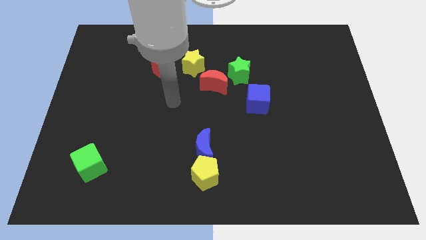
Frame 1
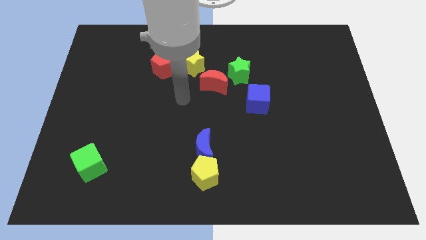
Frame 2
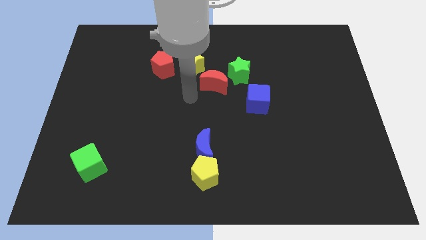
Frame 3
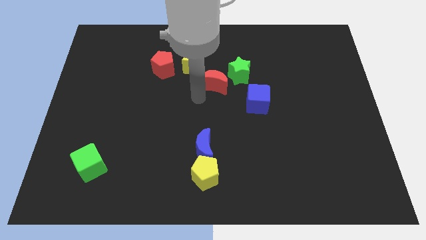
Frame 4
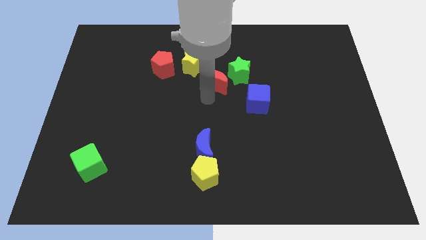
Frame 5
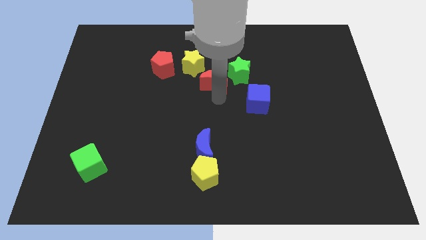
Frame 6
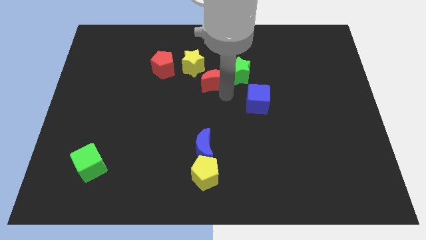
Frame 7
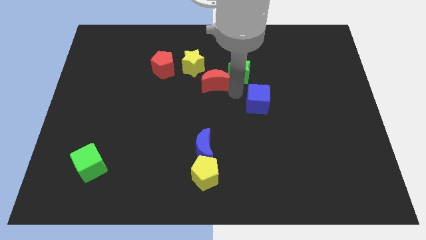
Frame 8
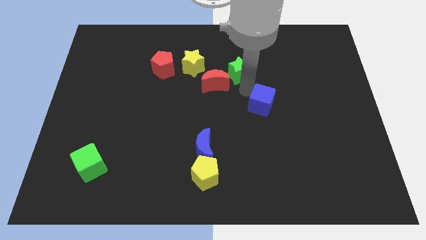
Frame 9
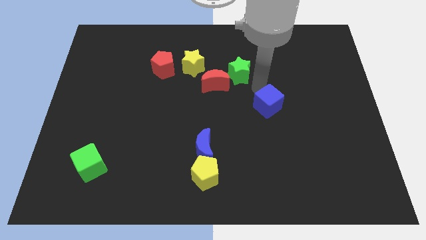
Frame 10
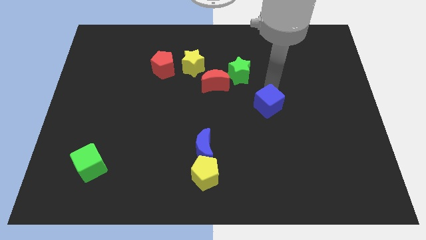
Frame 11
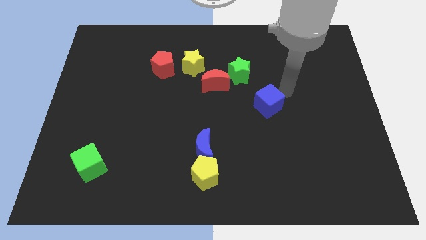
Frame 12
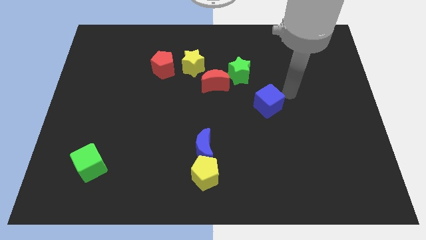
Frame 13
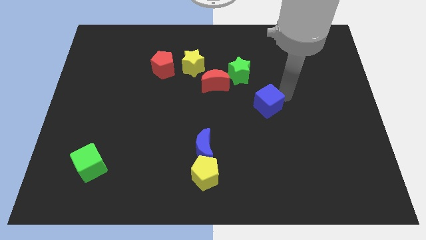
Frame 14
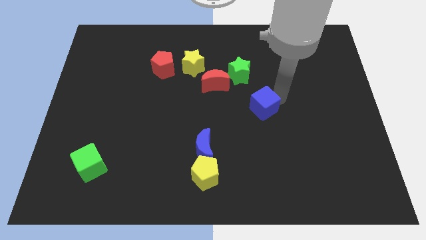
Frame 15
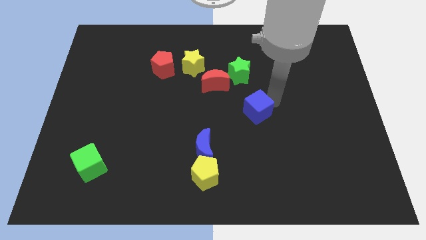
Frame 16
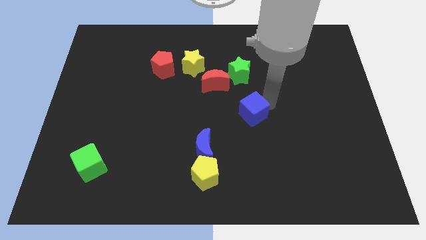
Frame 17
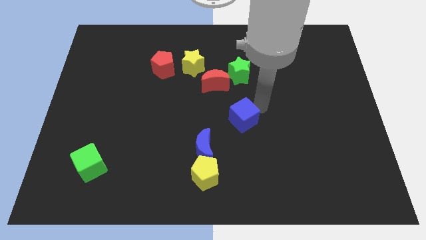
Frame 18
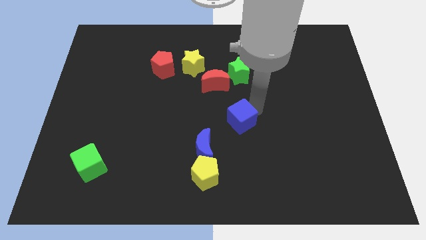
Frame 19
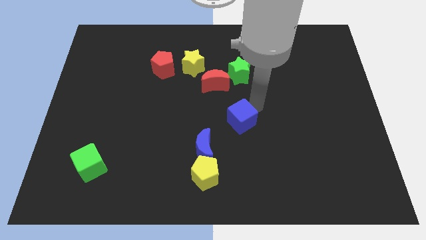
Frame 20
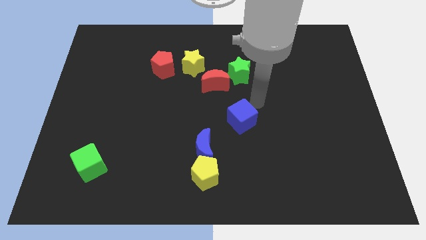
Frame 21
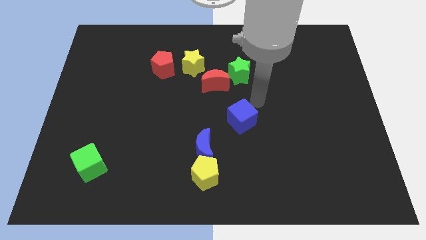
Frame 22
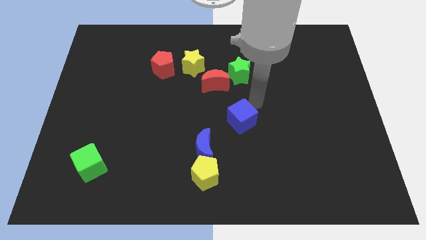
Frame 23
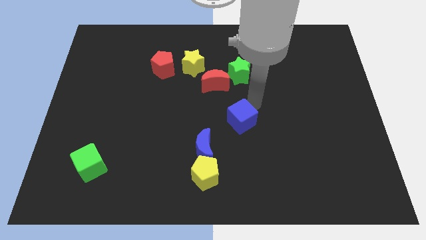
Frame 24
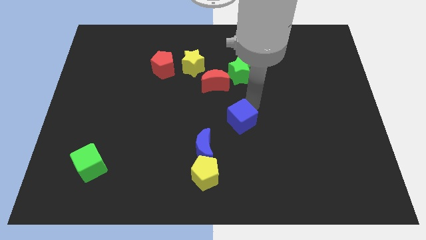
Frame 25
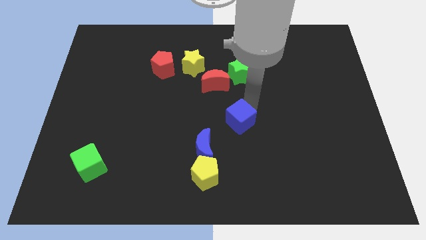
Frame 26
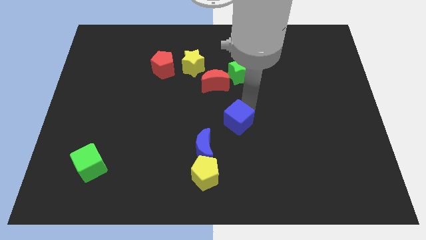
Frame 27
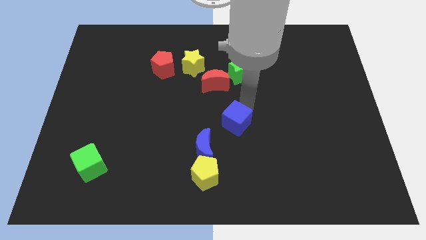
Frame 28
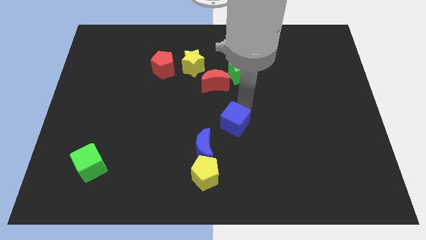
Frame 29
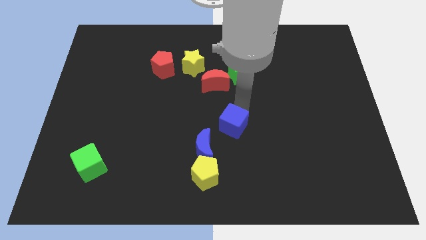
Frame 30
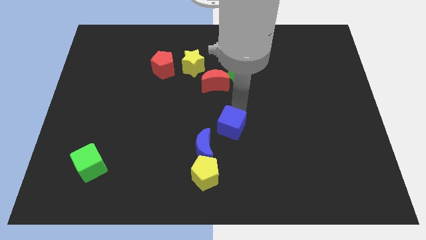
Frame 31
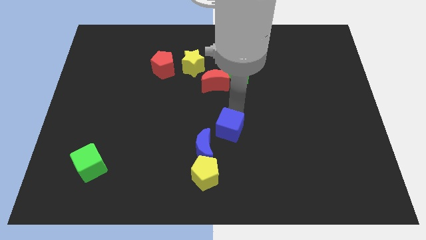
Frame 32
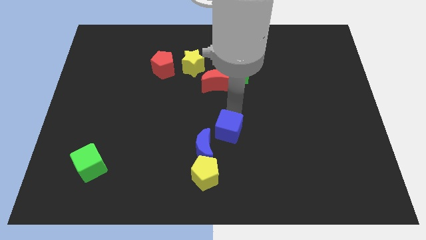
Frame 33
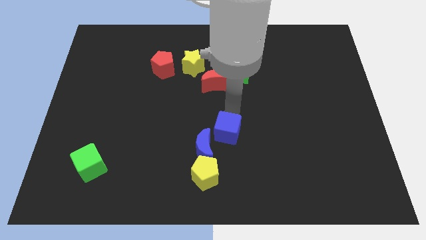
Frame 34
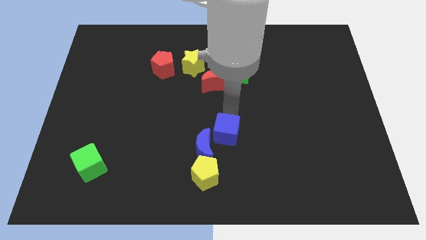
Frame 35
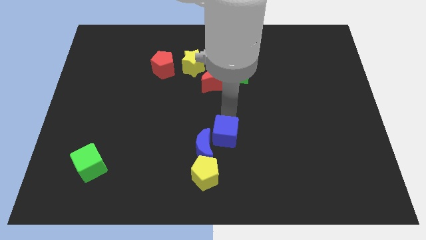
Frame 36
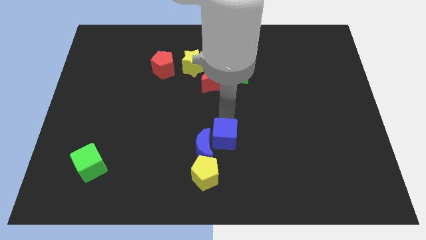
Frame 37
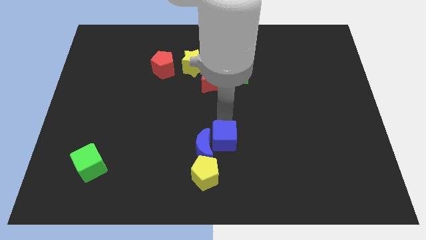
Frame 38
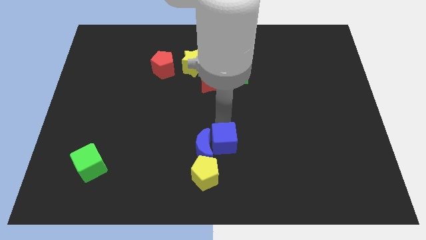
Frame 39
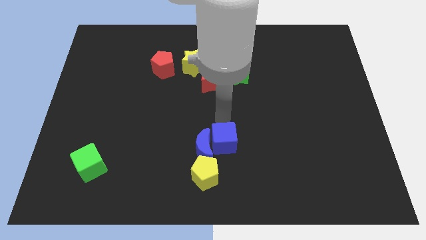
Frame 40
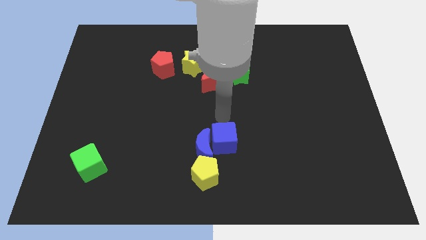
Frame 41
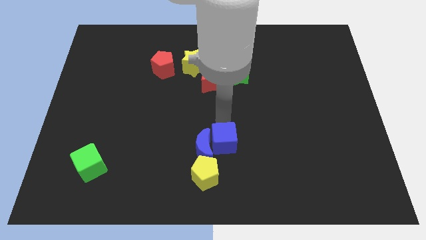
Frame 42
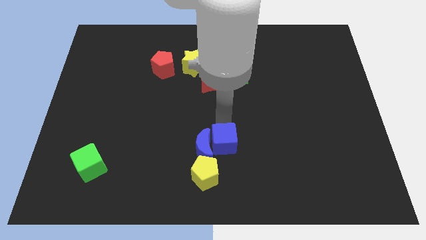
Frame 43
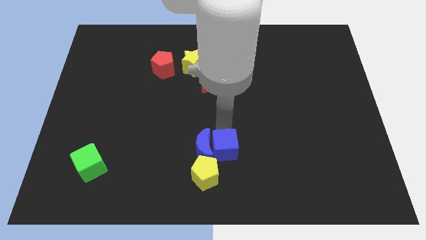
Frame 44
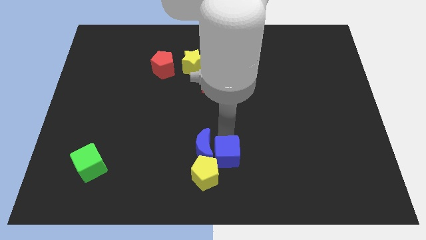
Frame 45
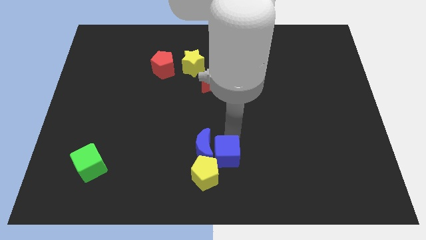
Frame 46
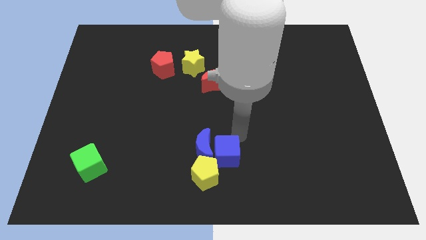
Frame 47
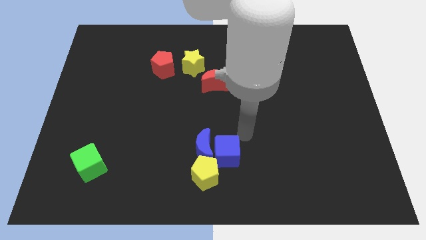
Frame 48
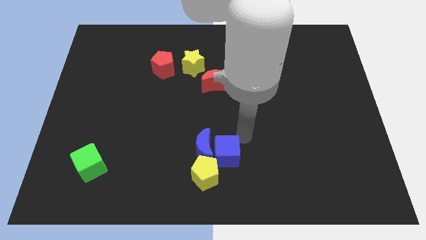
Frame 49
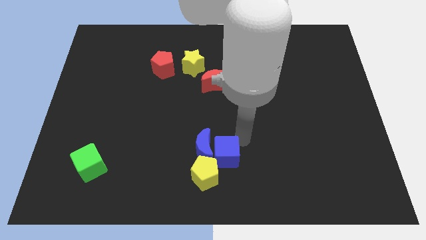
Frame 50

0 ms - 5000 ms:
put the blue cube close to the yellow pentagon

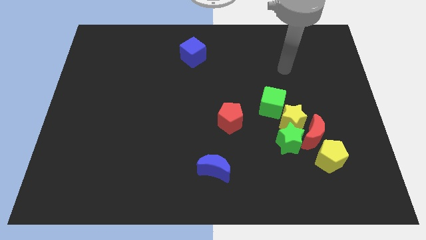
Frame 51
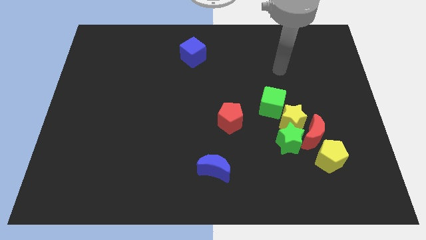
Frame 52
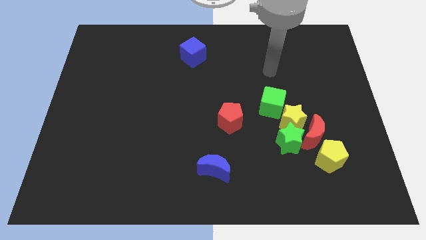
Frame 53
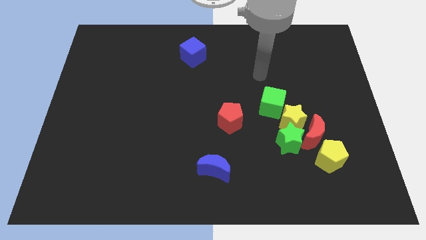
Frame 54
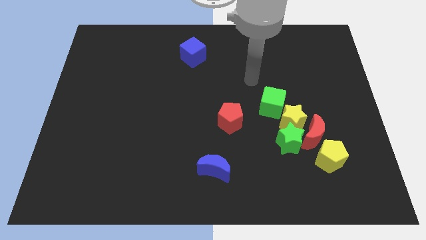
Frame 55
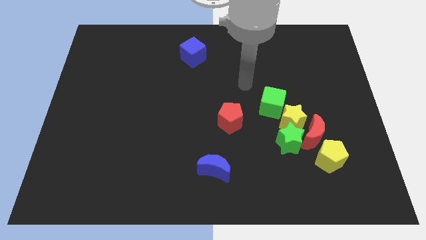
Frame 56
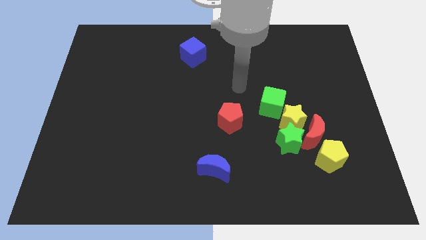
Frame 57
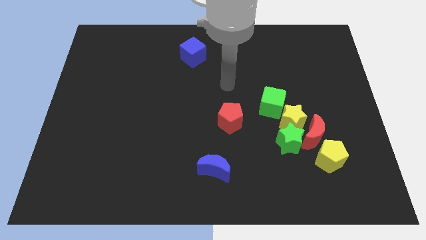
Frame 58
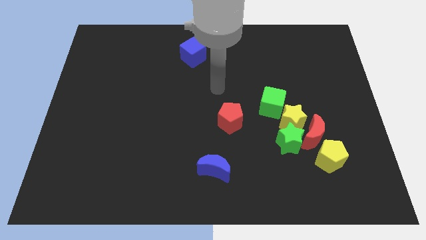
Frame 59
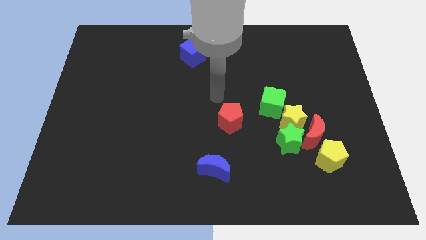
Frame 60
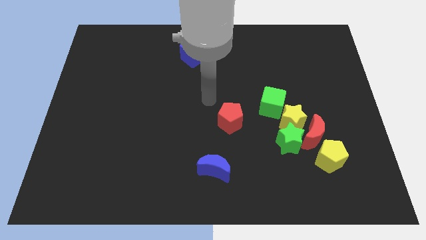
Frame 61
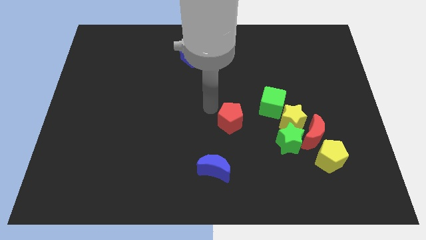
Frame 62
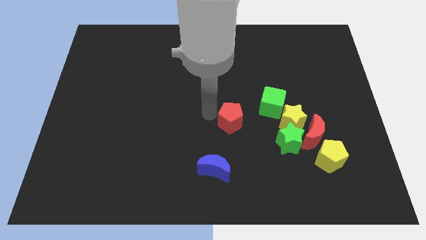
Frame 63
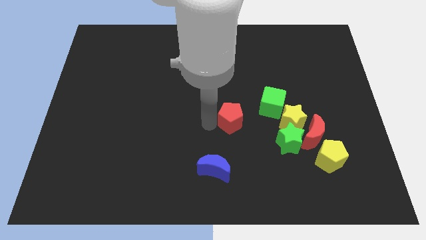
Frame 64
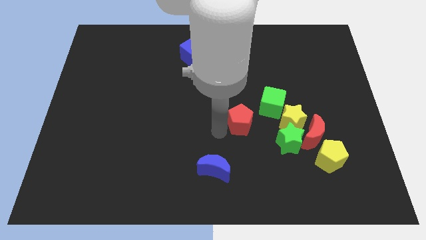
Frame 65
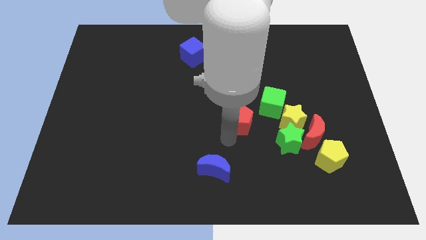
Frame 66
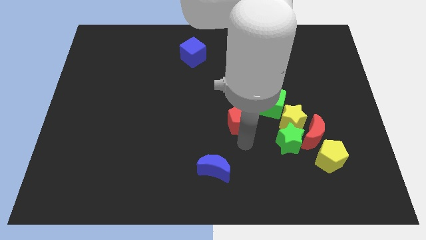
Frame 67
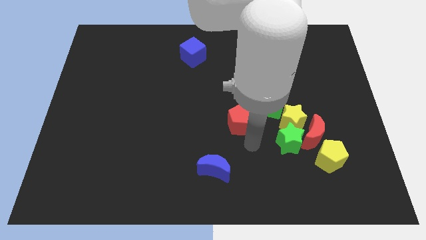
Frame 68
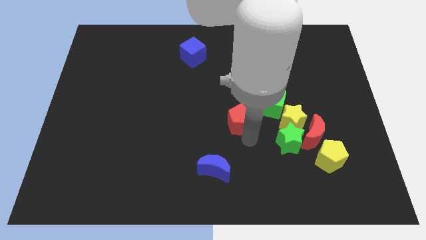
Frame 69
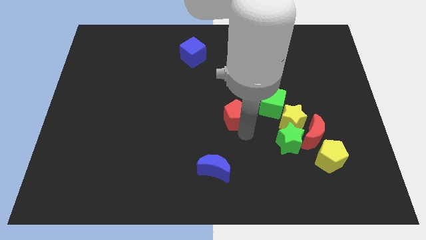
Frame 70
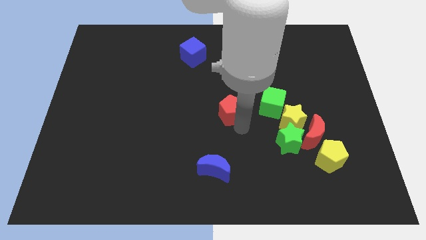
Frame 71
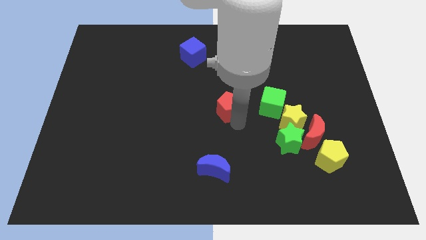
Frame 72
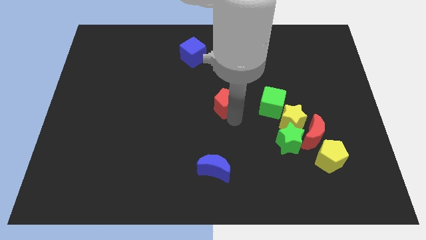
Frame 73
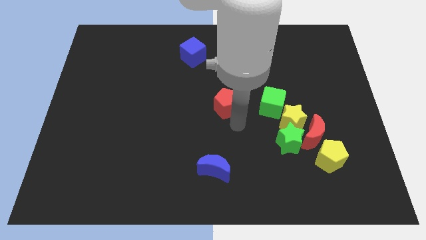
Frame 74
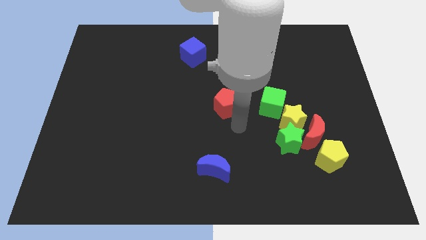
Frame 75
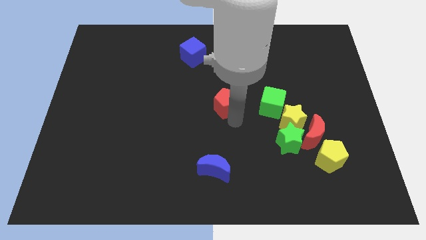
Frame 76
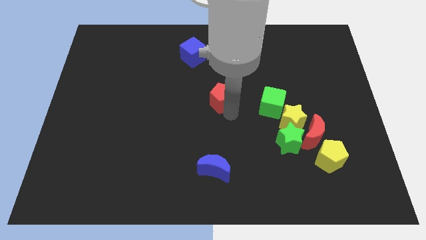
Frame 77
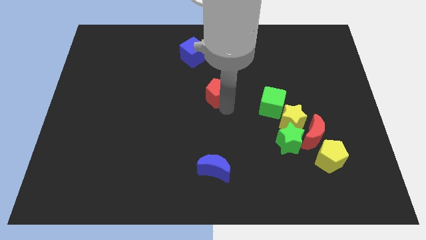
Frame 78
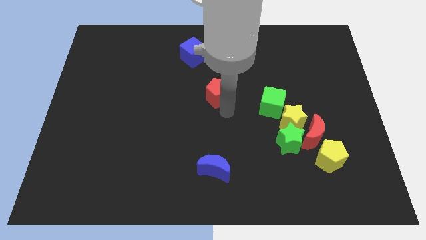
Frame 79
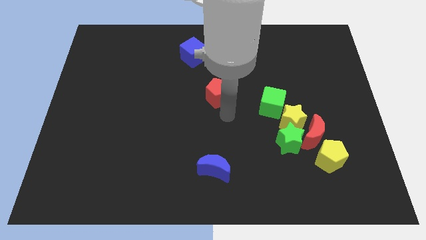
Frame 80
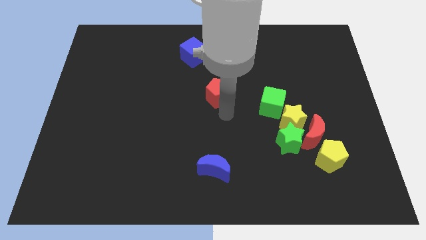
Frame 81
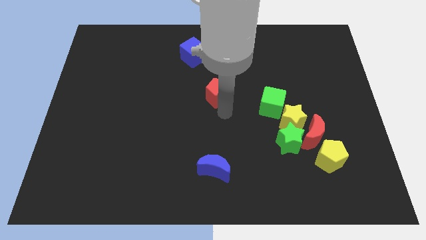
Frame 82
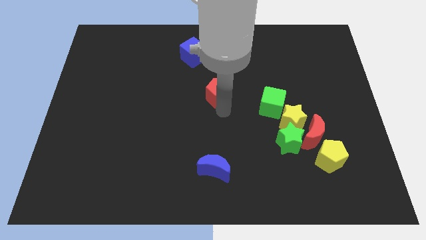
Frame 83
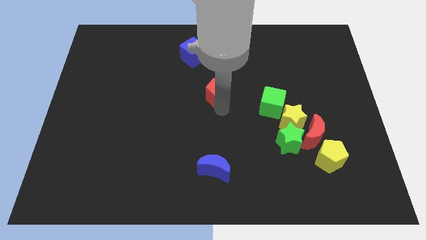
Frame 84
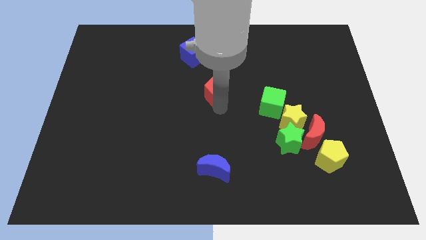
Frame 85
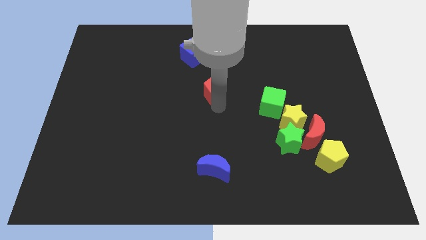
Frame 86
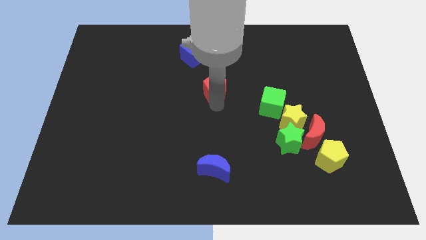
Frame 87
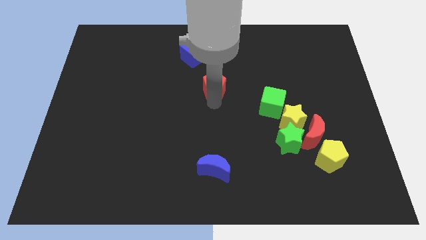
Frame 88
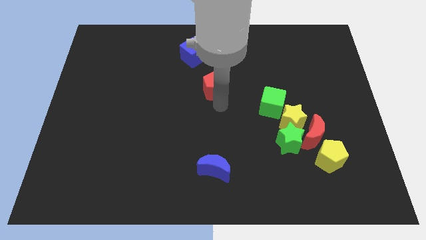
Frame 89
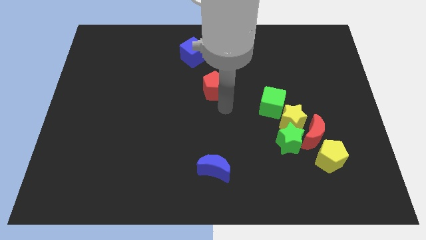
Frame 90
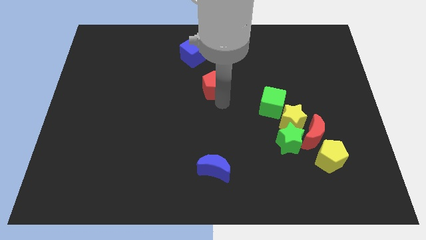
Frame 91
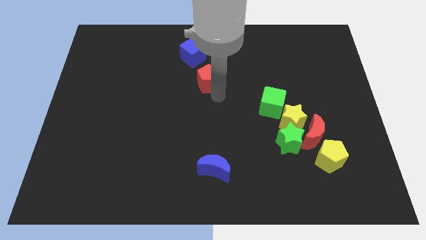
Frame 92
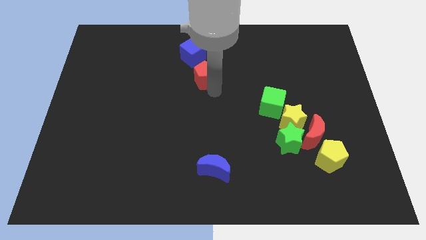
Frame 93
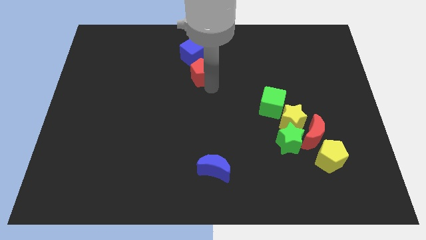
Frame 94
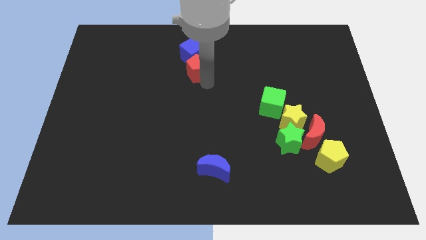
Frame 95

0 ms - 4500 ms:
move the red pentagon to the blue cube
